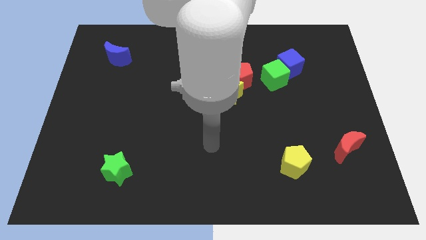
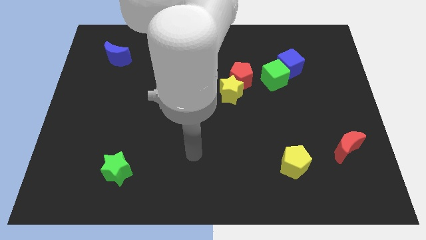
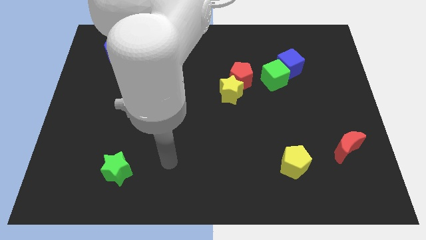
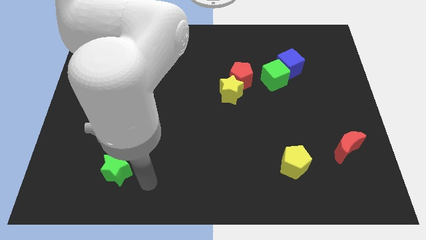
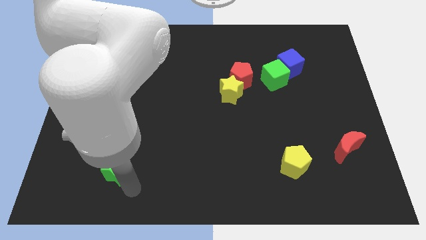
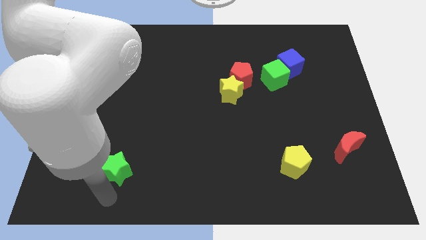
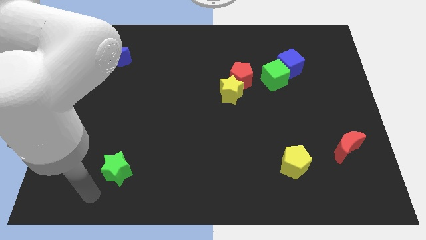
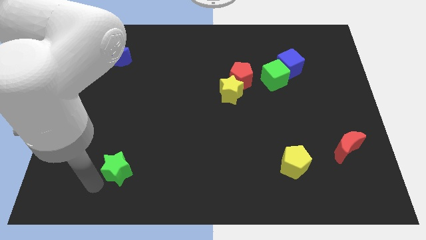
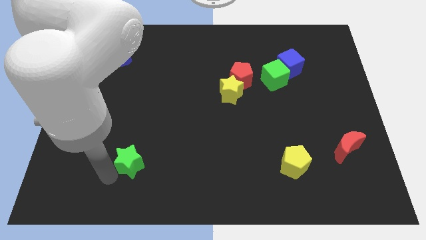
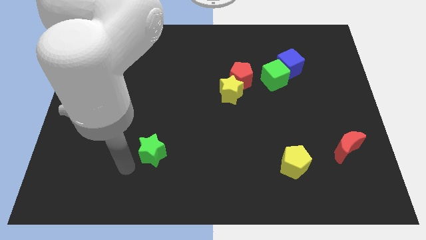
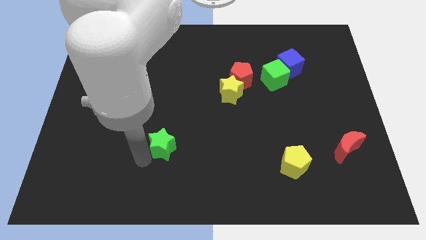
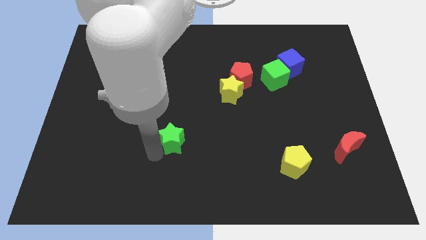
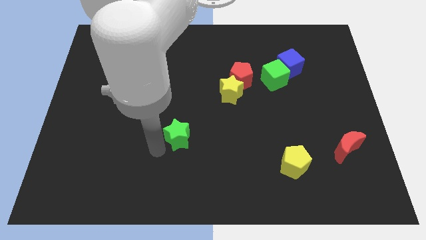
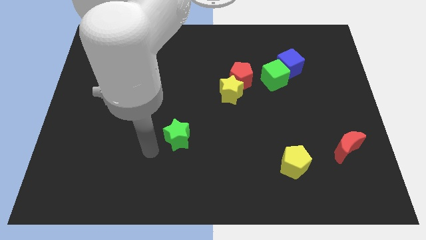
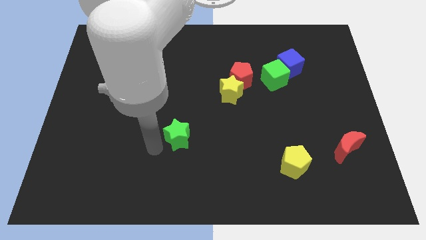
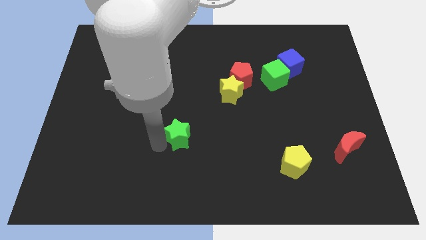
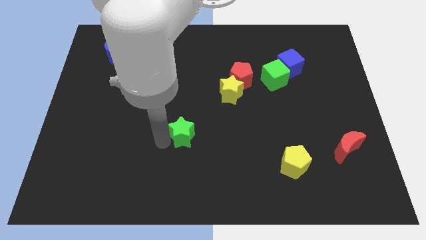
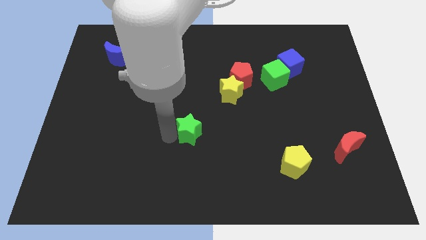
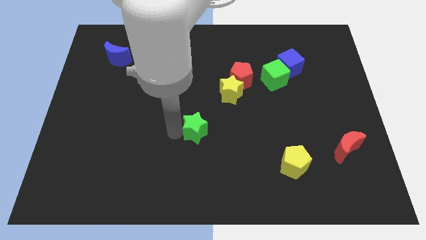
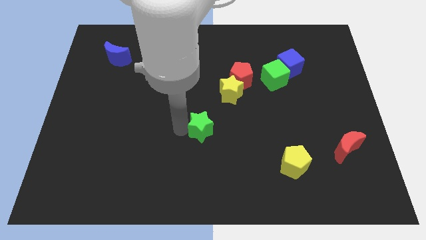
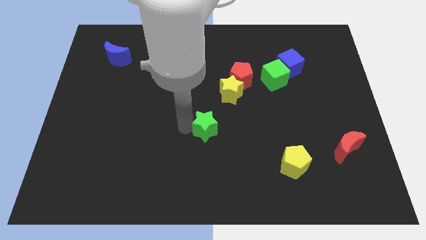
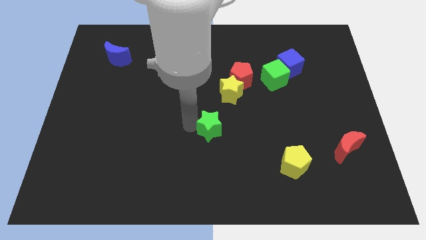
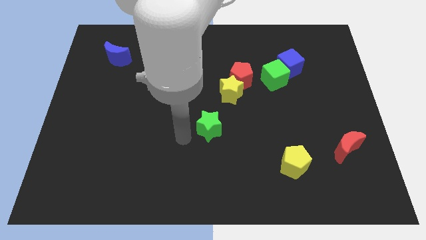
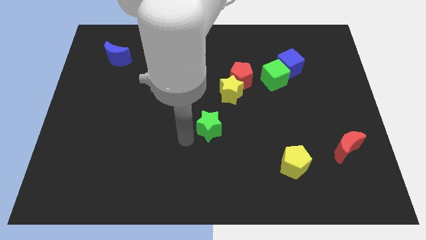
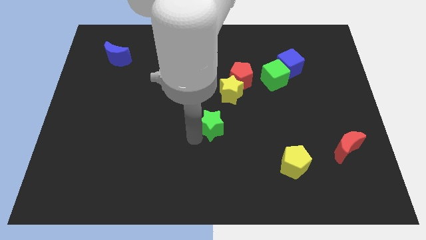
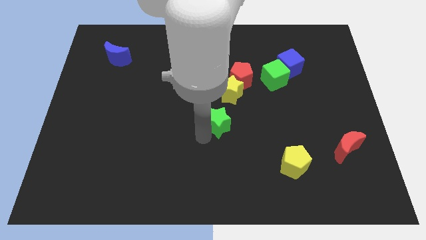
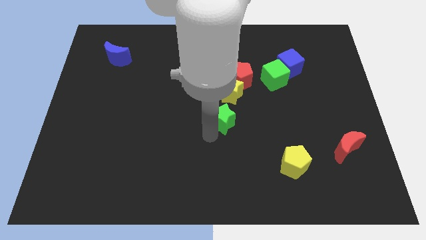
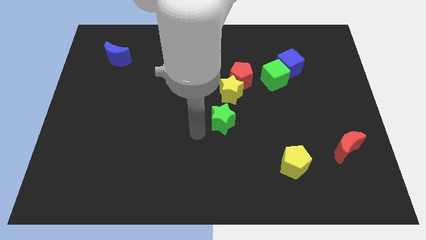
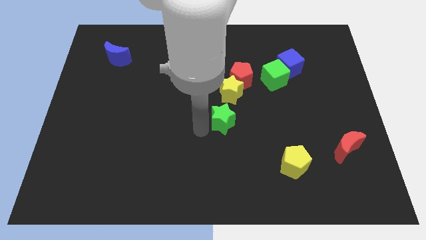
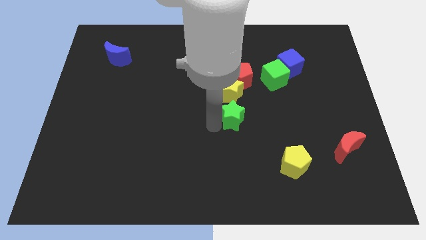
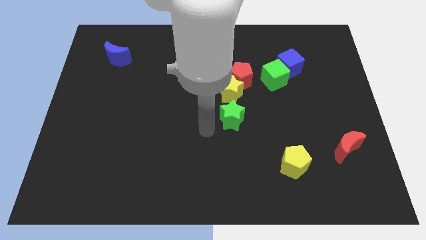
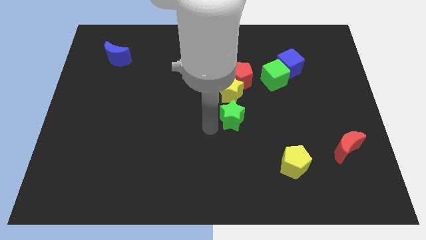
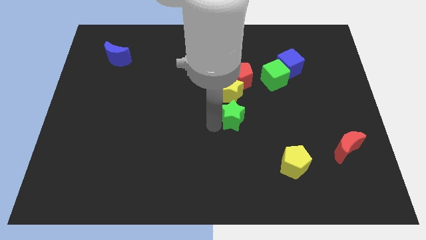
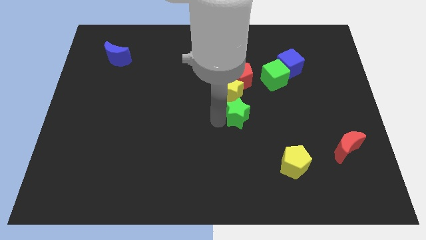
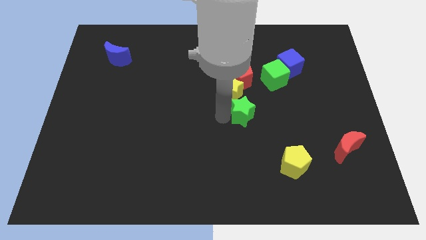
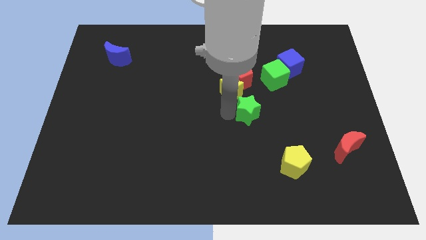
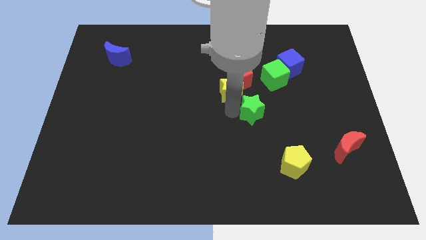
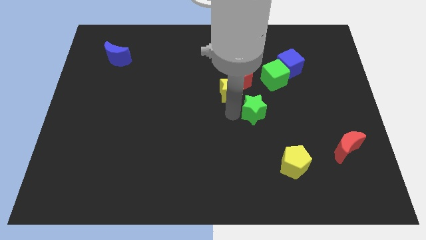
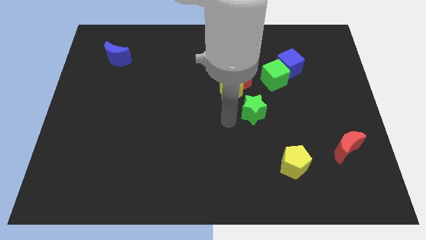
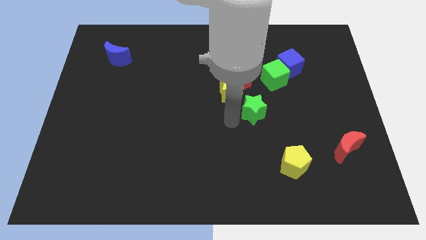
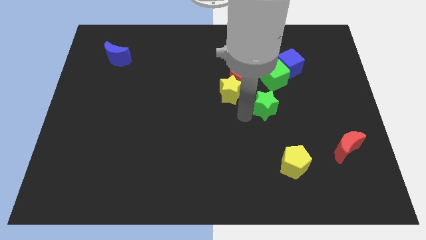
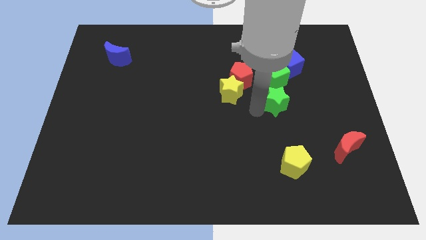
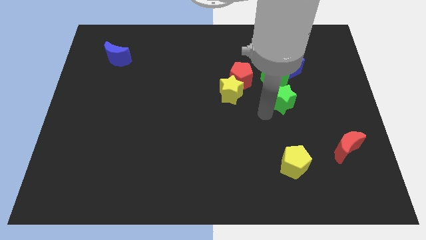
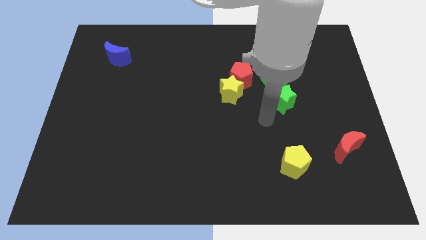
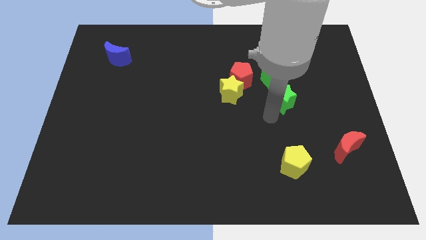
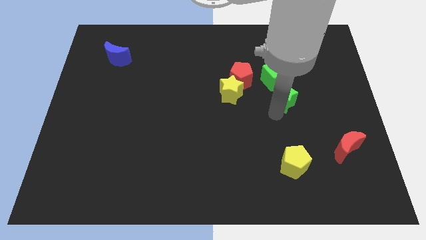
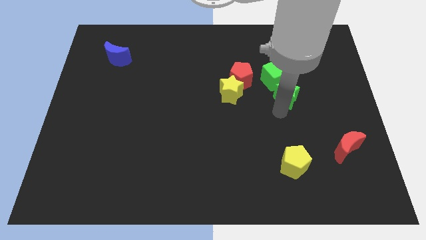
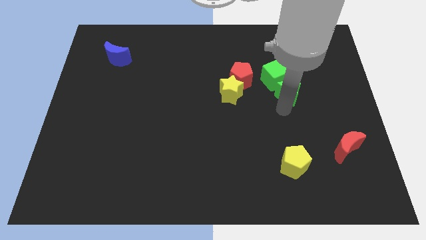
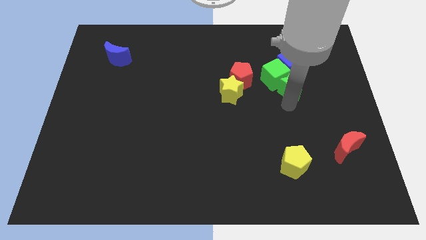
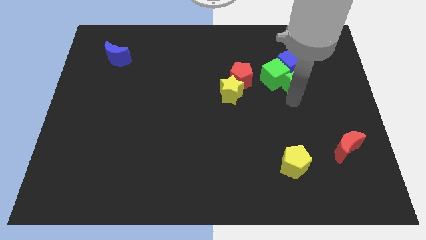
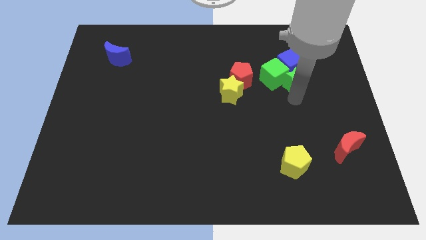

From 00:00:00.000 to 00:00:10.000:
move the green star to the blue cube

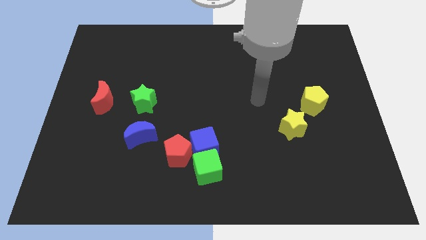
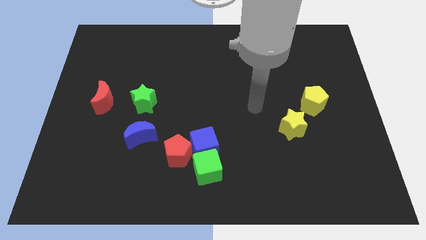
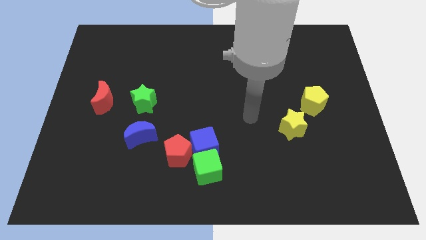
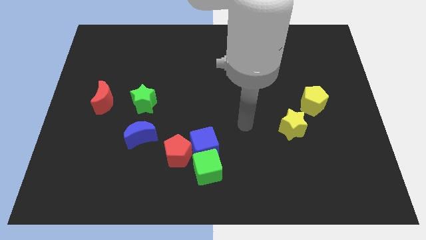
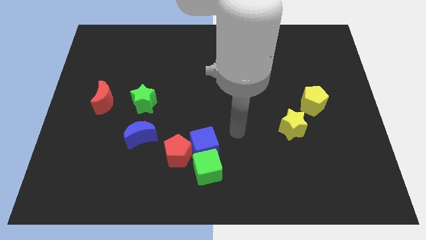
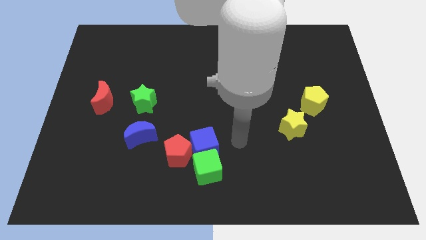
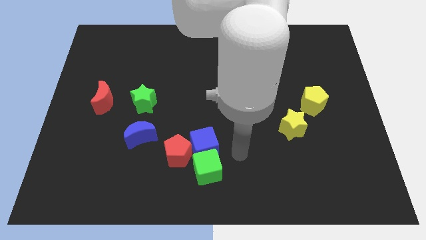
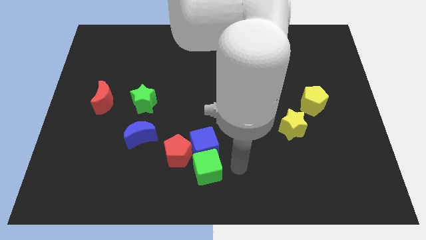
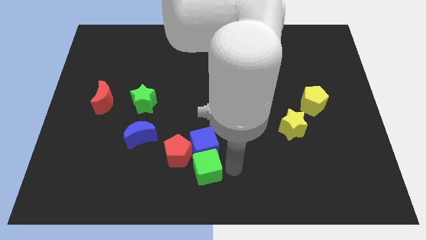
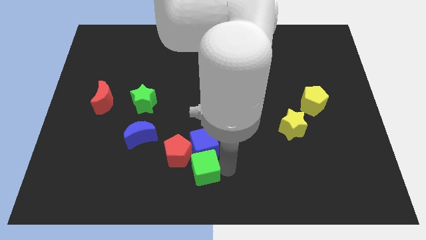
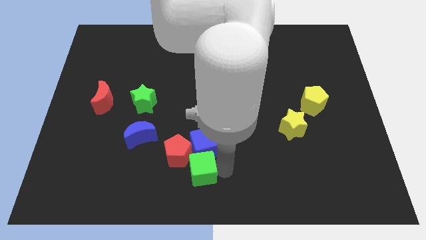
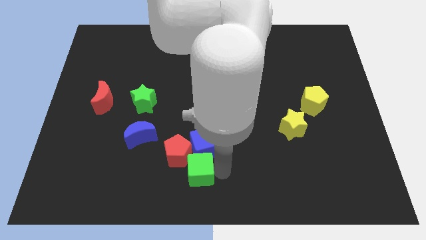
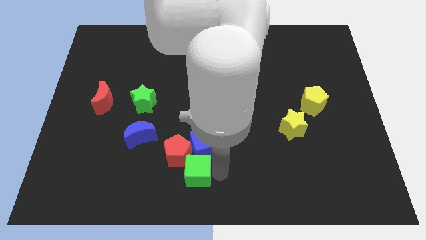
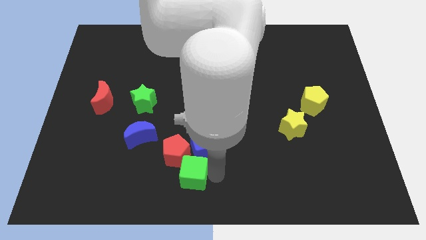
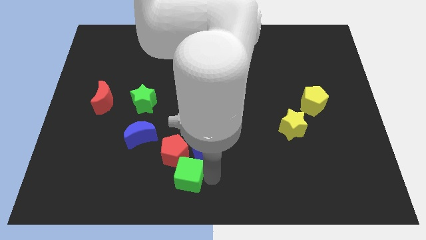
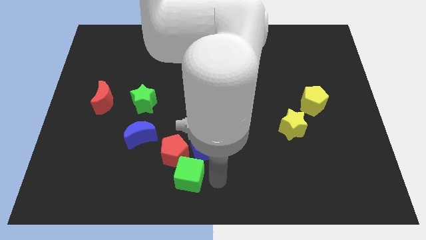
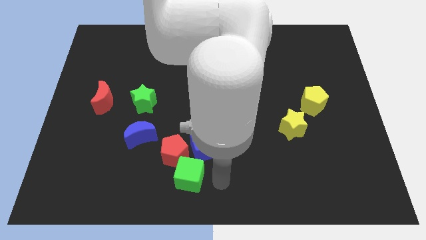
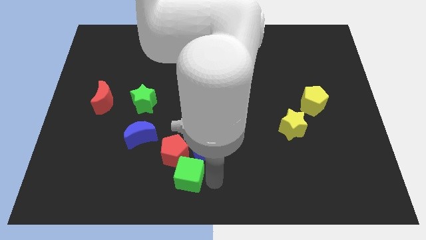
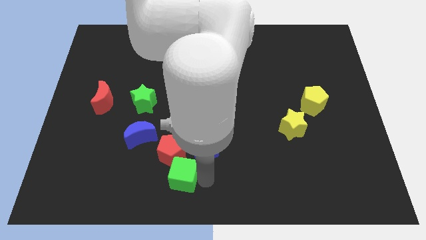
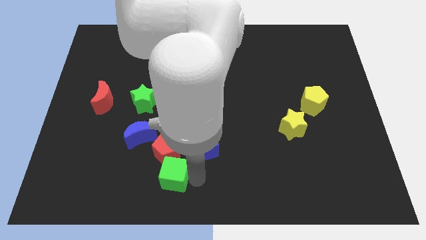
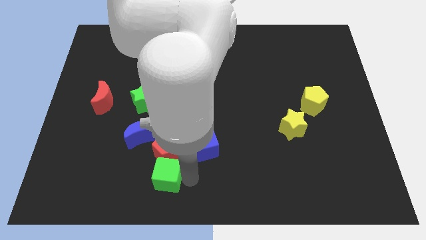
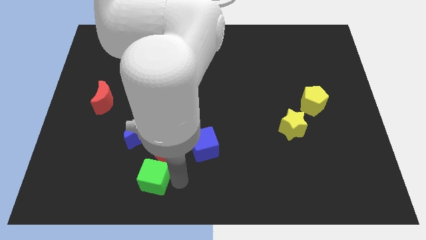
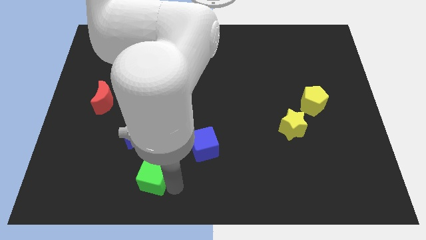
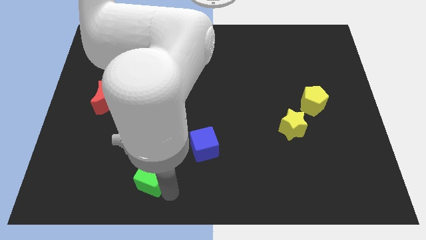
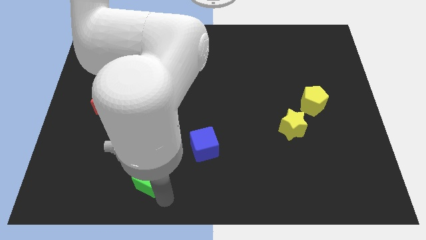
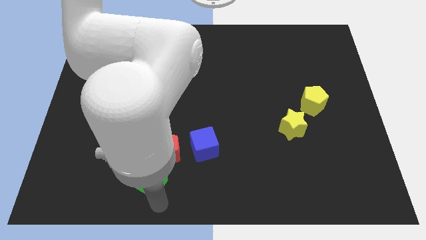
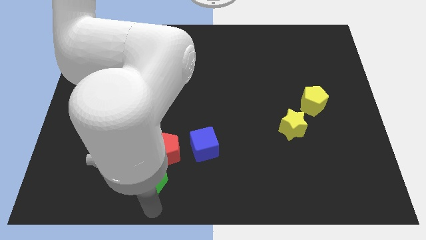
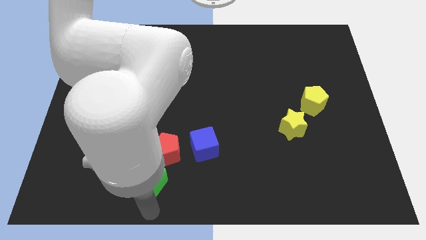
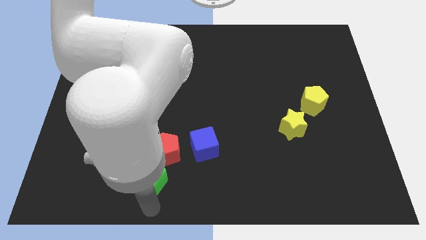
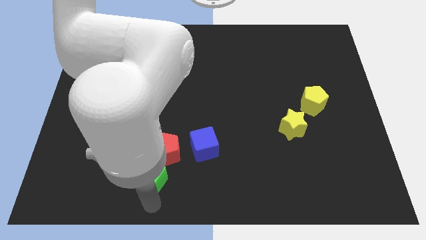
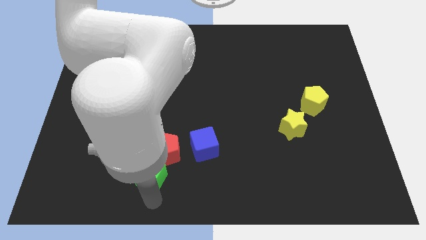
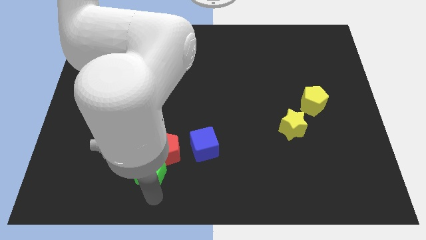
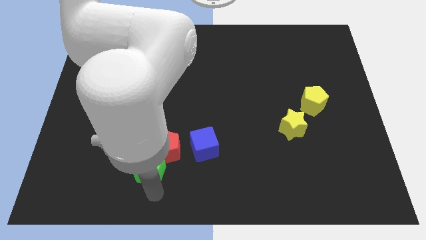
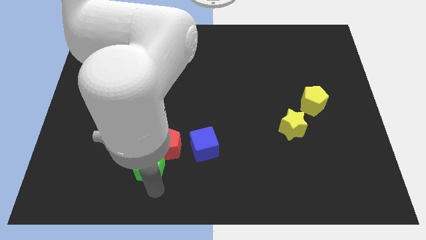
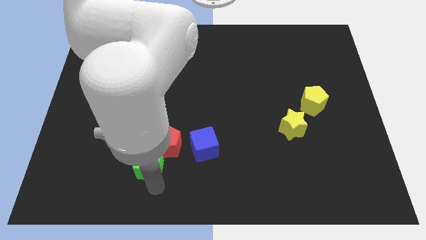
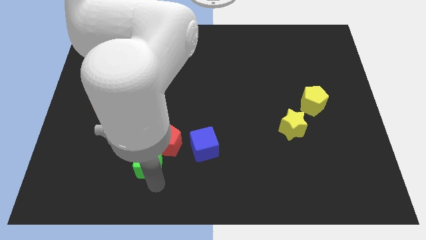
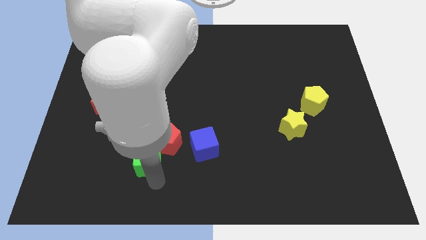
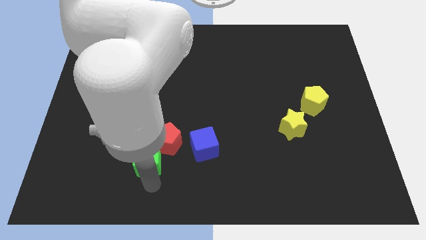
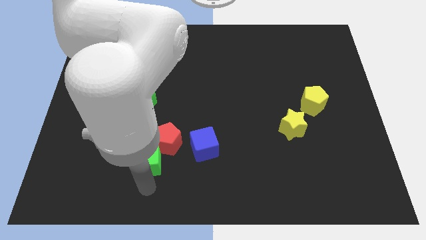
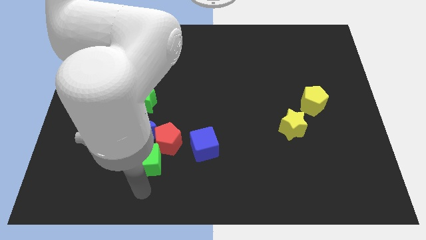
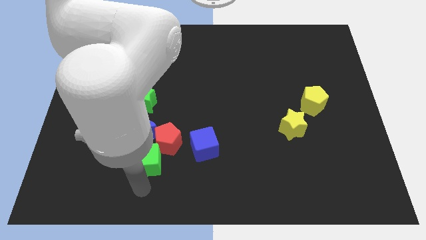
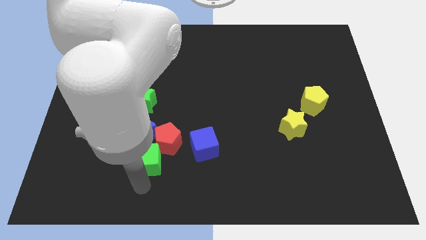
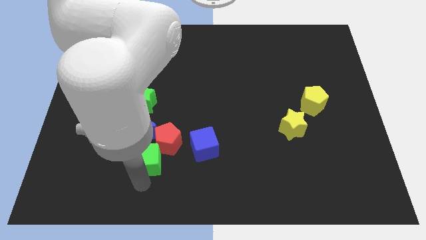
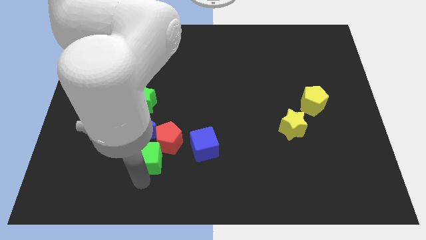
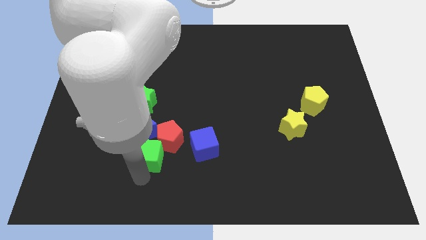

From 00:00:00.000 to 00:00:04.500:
put the green cube towards the blue moon
